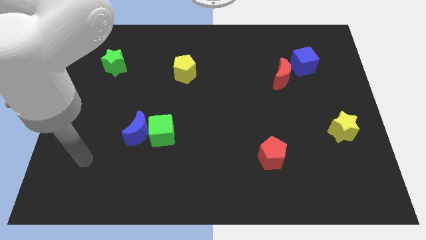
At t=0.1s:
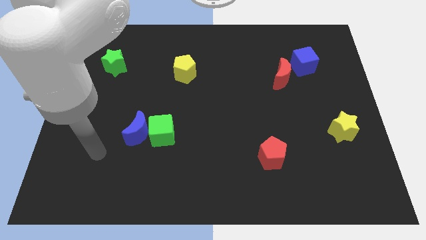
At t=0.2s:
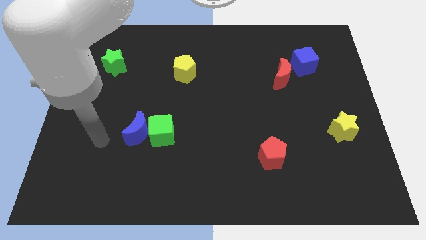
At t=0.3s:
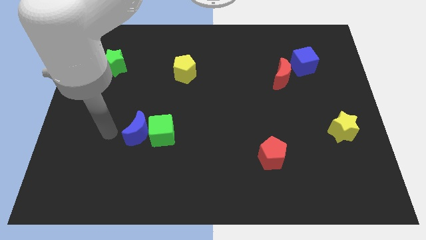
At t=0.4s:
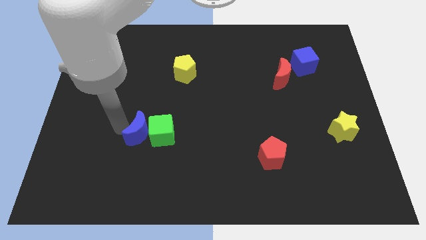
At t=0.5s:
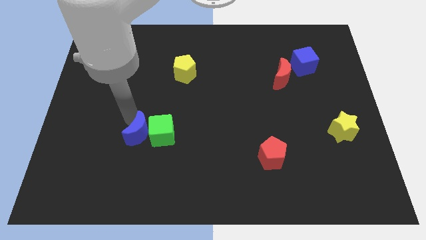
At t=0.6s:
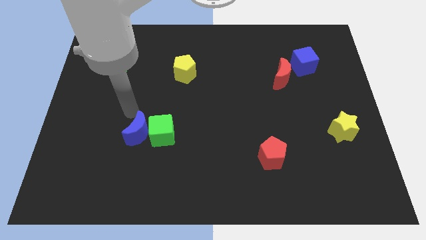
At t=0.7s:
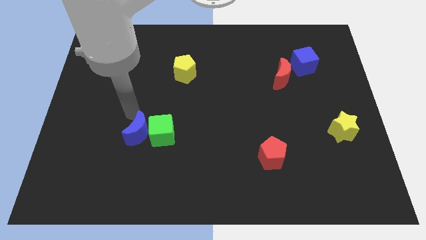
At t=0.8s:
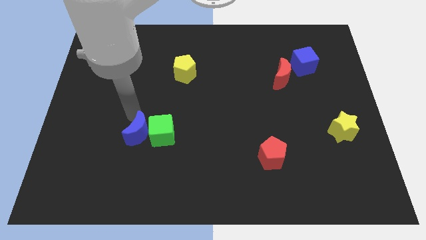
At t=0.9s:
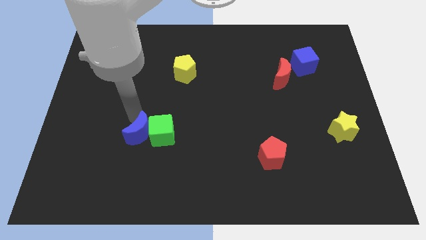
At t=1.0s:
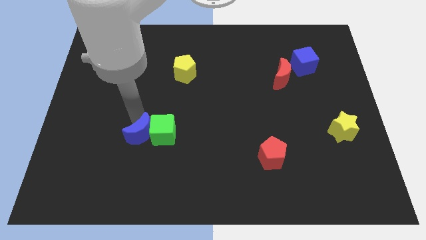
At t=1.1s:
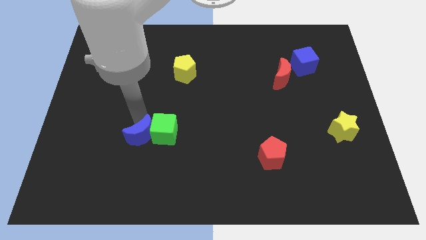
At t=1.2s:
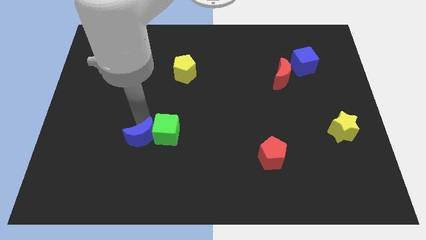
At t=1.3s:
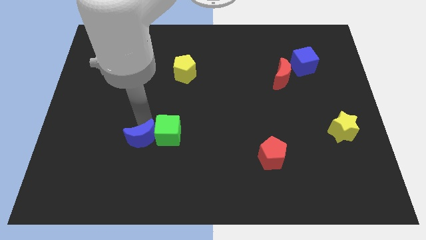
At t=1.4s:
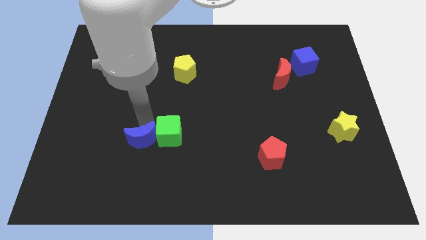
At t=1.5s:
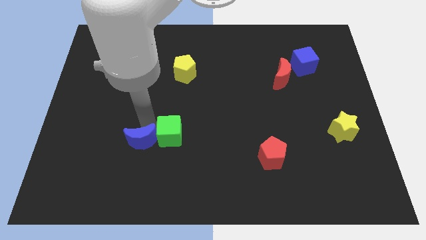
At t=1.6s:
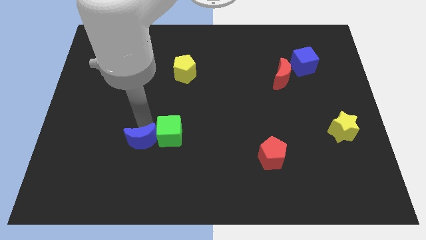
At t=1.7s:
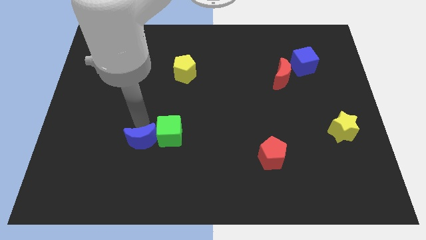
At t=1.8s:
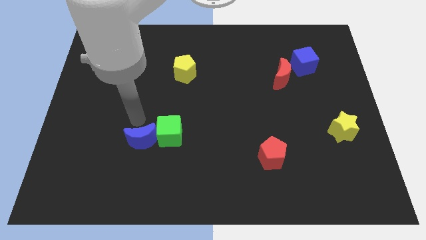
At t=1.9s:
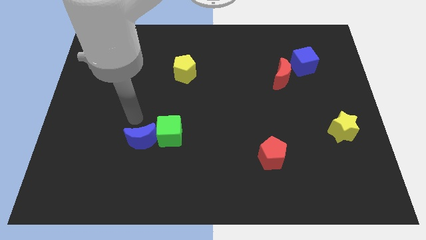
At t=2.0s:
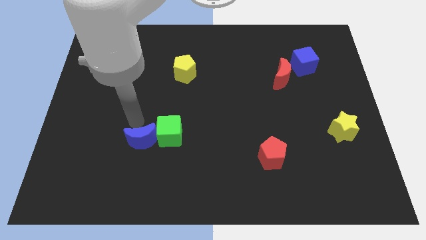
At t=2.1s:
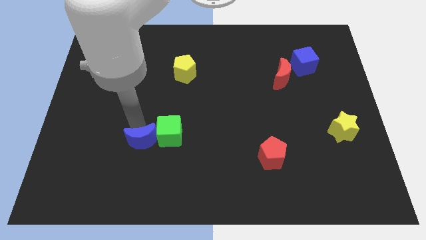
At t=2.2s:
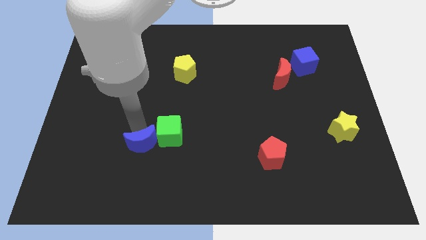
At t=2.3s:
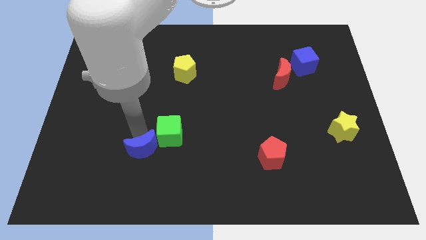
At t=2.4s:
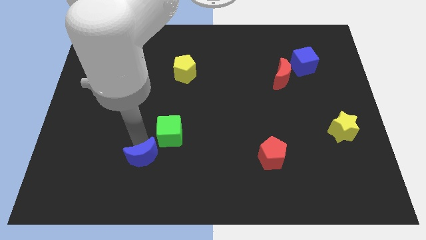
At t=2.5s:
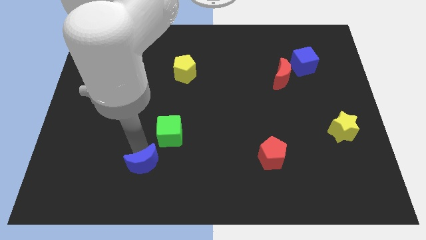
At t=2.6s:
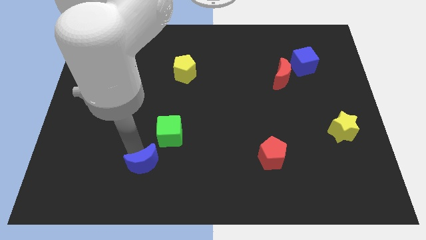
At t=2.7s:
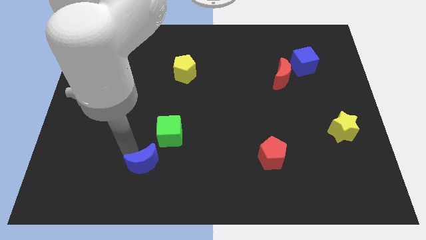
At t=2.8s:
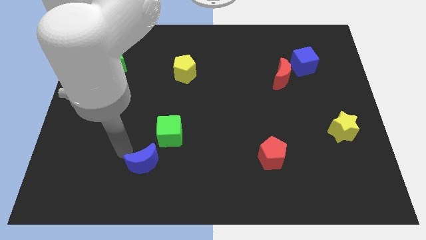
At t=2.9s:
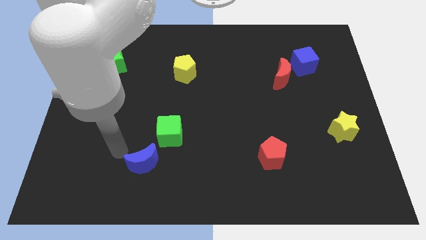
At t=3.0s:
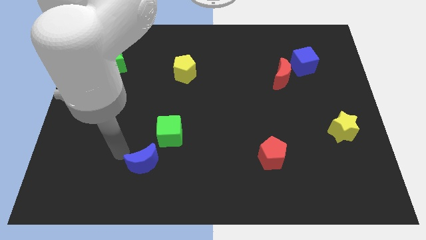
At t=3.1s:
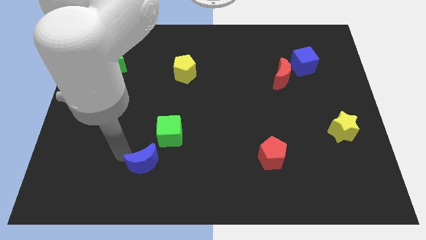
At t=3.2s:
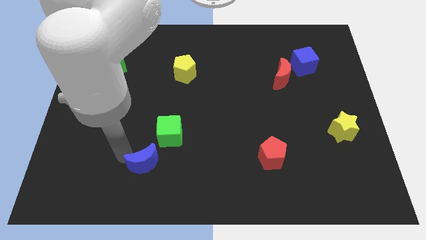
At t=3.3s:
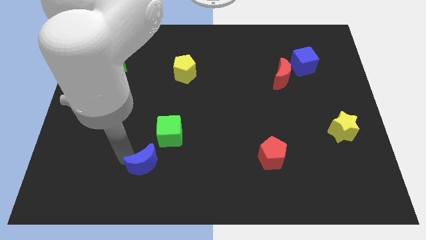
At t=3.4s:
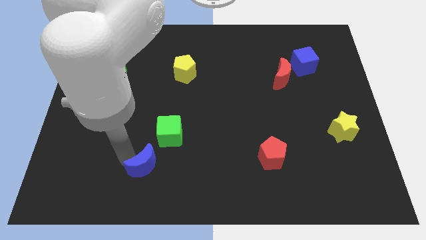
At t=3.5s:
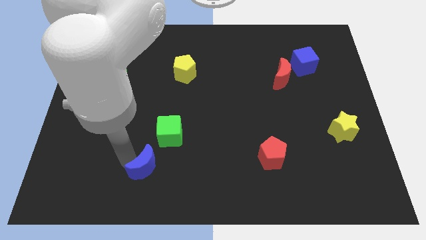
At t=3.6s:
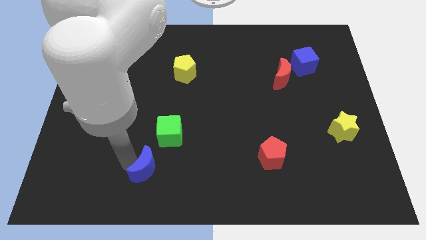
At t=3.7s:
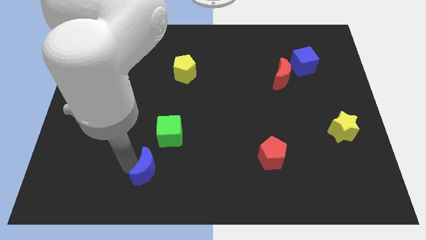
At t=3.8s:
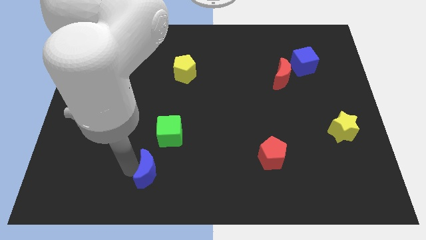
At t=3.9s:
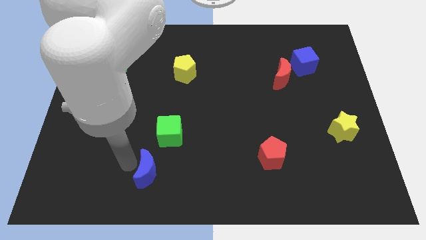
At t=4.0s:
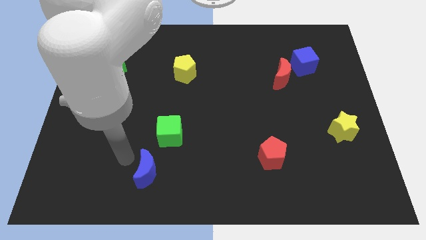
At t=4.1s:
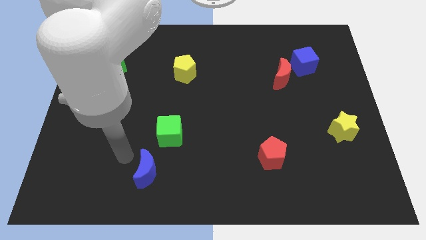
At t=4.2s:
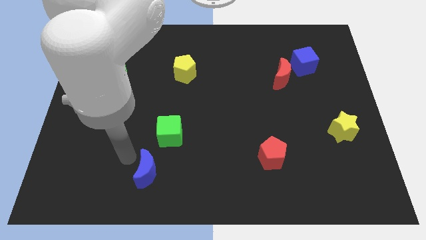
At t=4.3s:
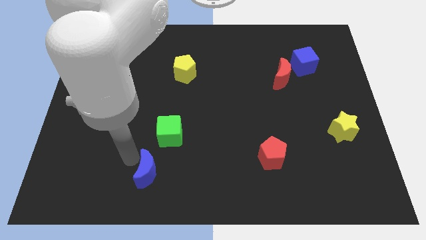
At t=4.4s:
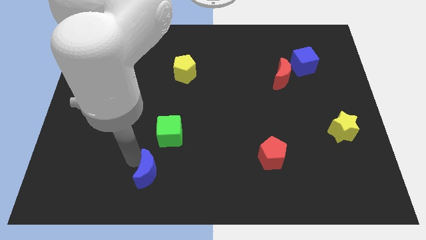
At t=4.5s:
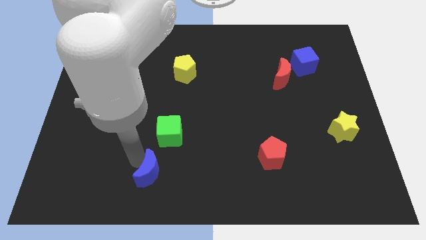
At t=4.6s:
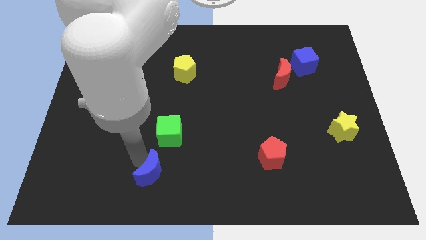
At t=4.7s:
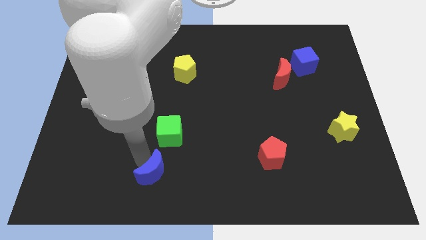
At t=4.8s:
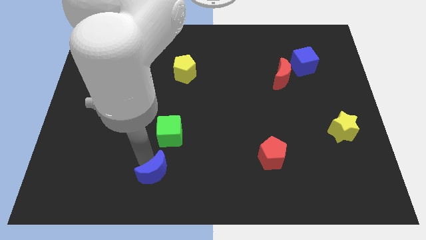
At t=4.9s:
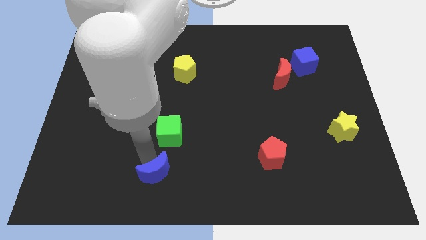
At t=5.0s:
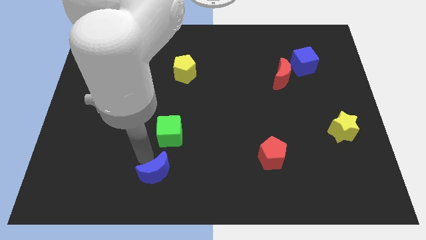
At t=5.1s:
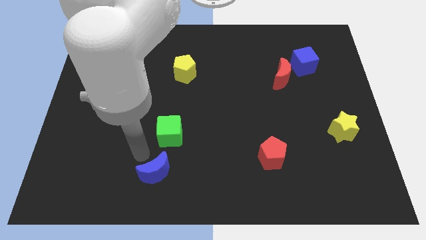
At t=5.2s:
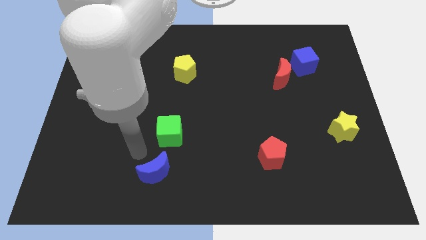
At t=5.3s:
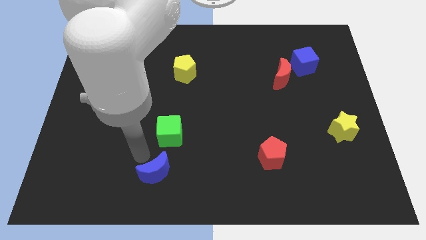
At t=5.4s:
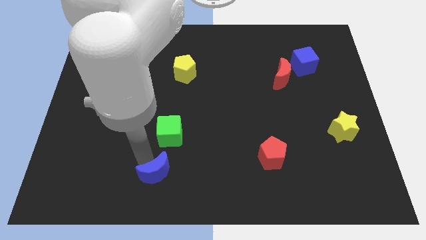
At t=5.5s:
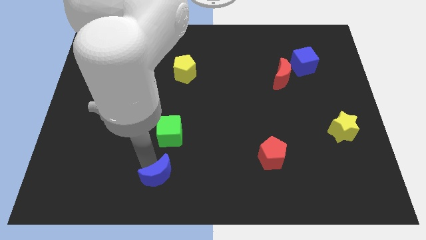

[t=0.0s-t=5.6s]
move the blue moon to the bottom side
